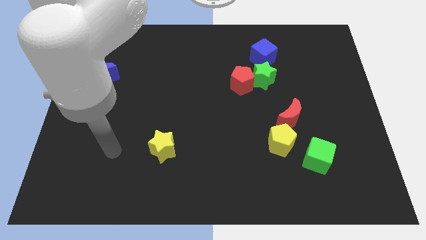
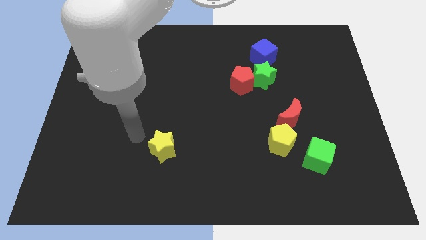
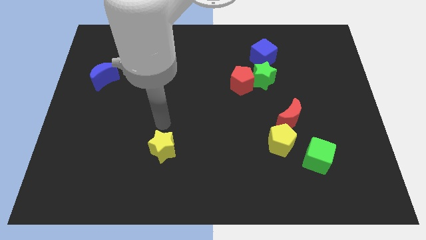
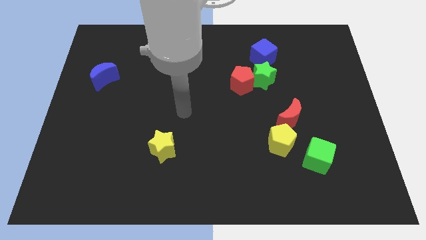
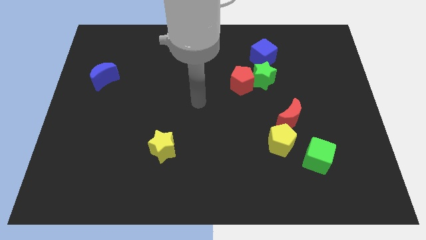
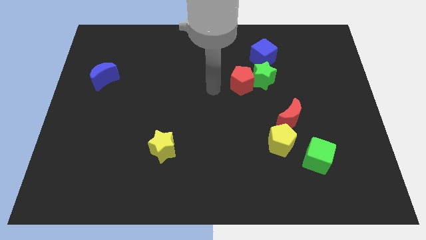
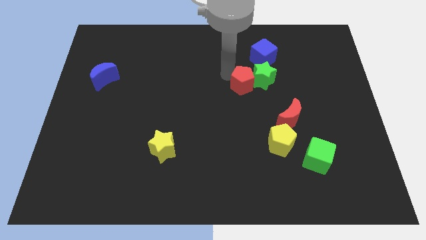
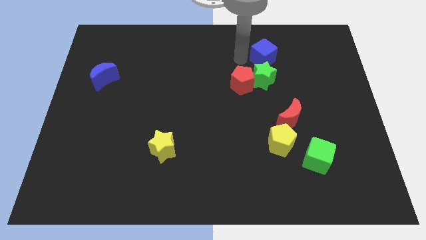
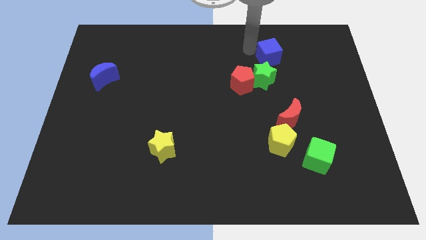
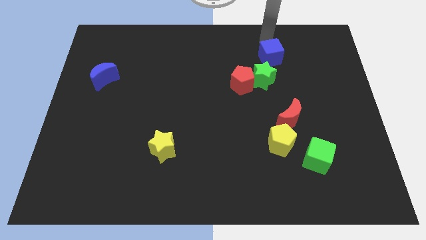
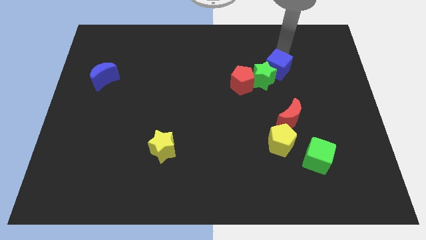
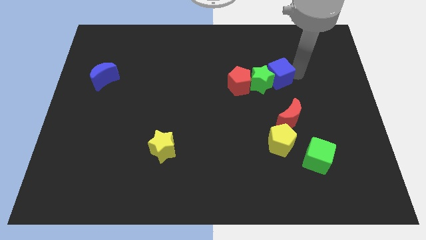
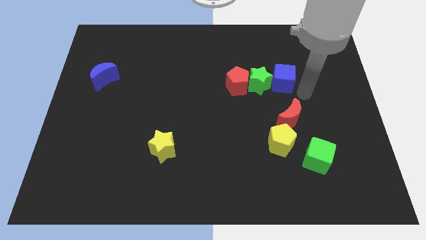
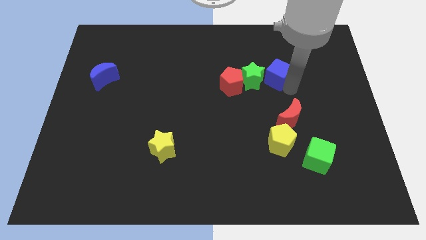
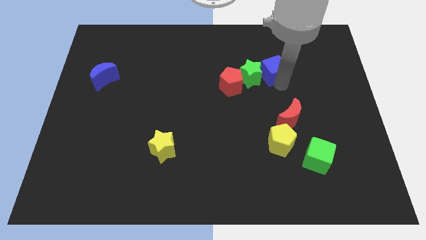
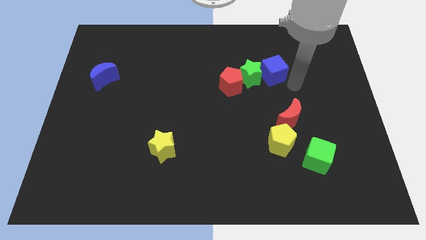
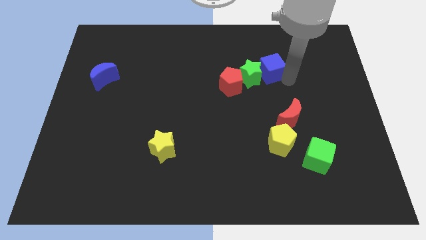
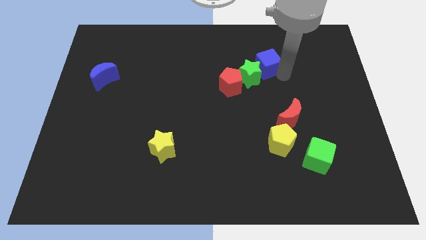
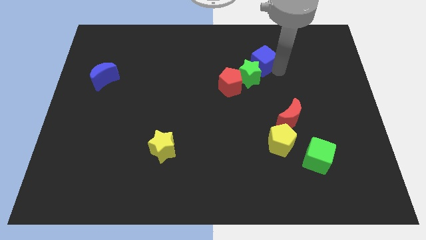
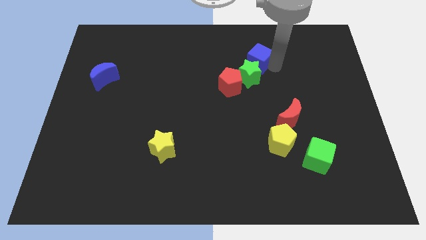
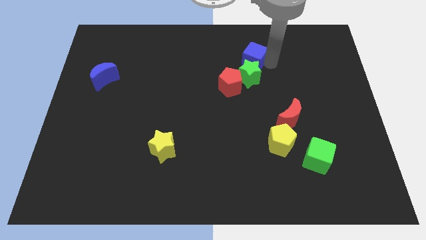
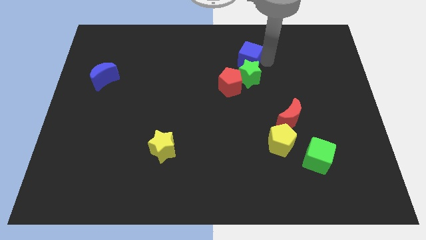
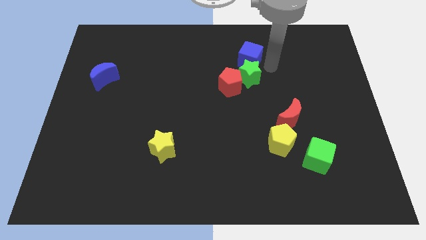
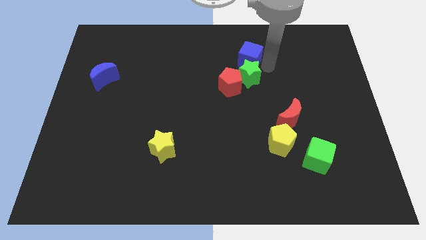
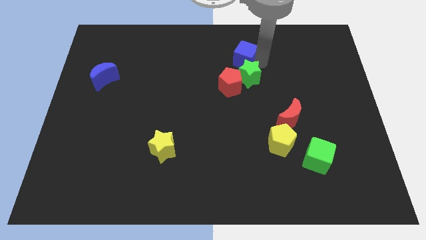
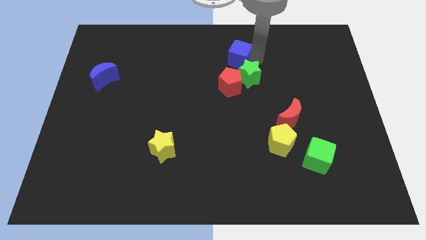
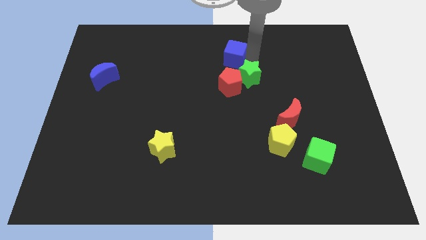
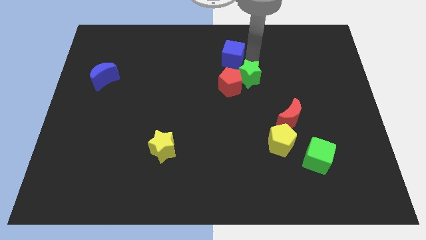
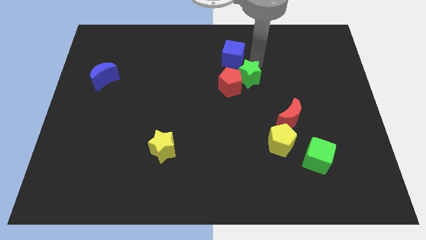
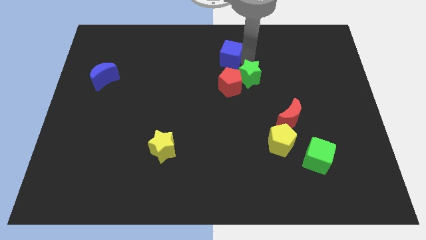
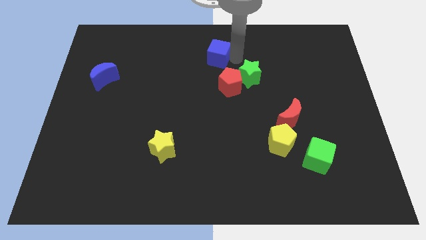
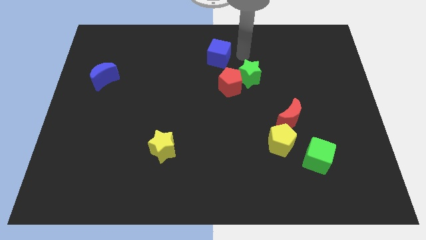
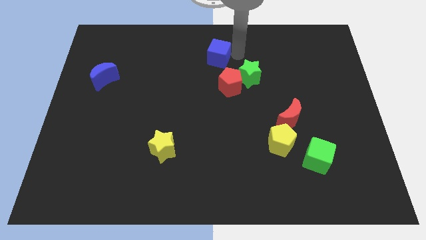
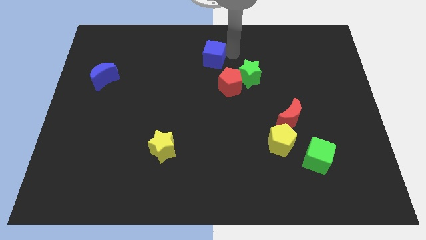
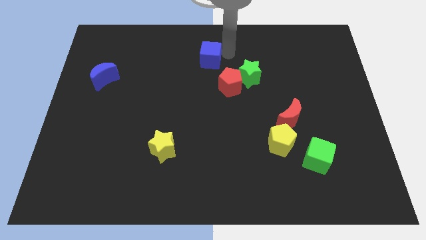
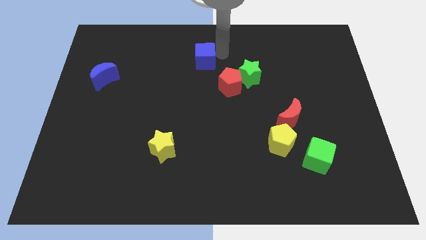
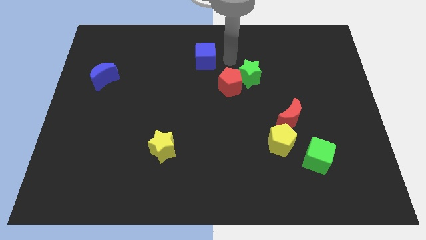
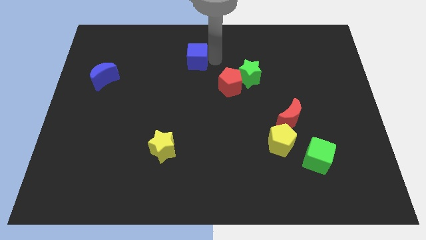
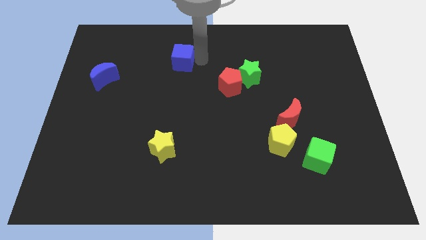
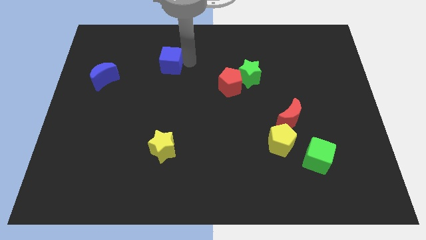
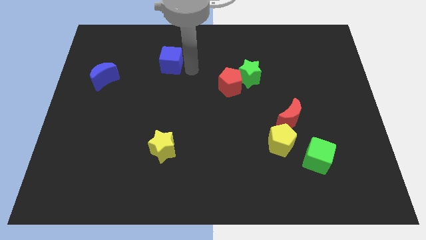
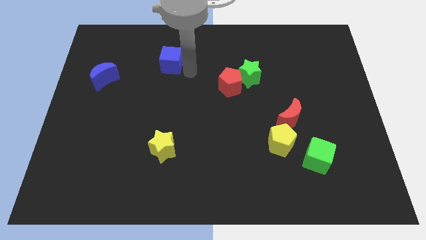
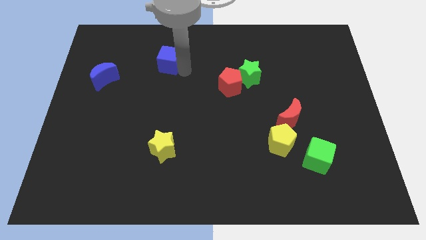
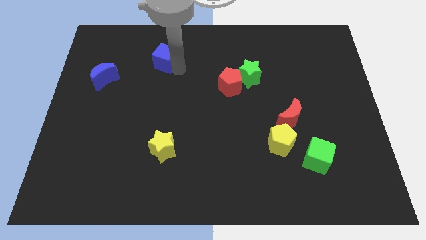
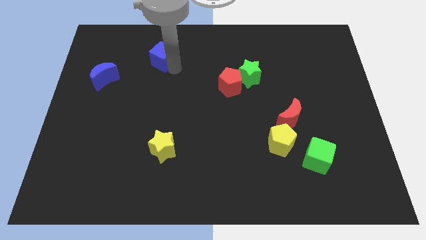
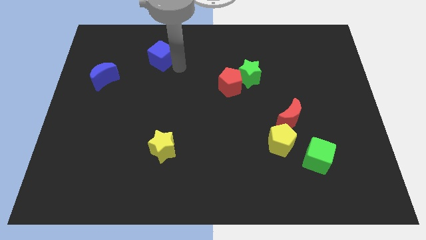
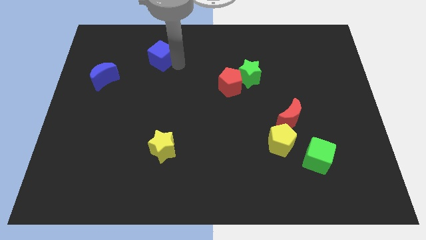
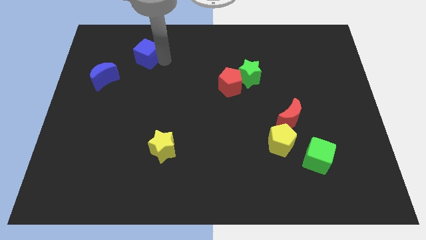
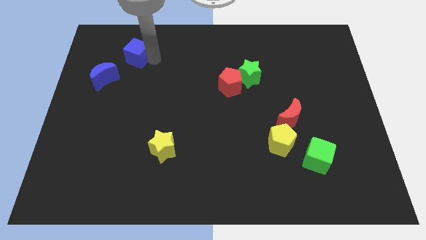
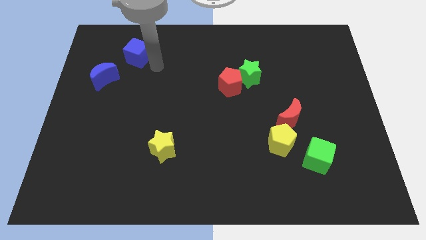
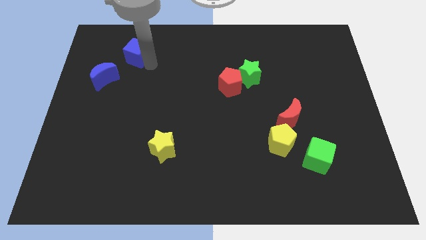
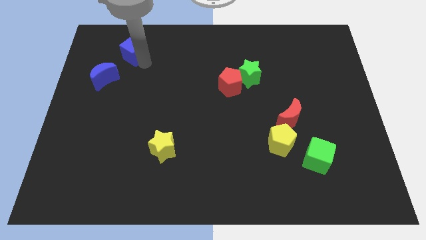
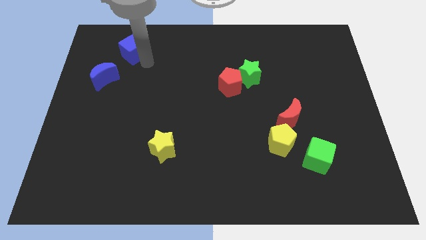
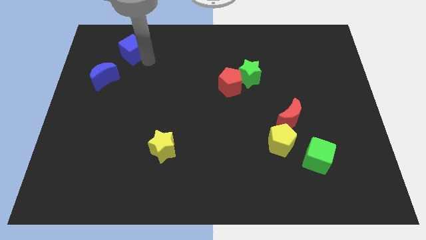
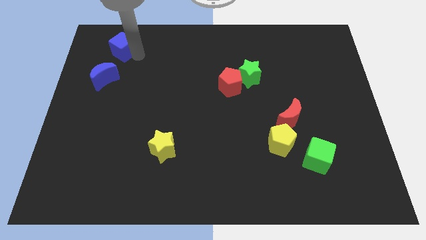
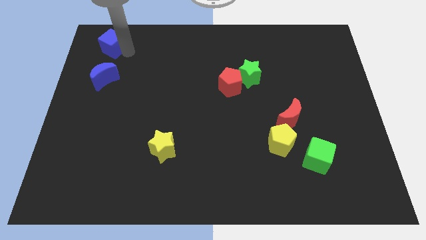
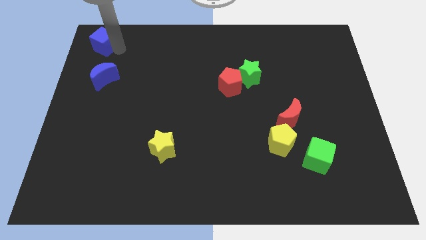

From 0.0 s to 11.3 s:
push the blue cube to the top left of the board

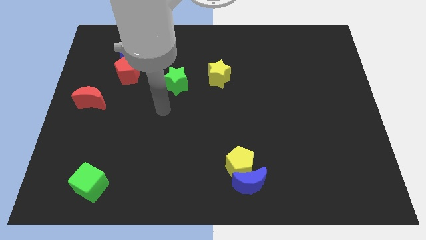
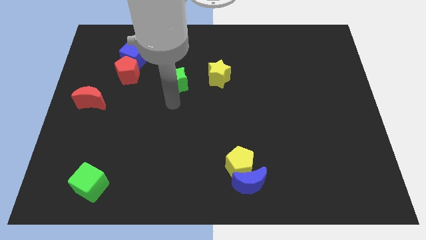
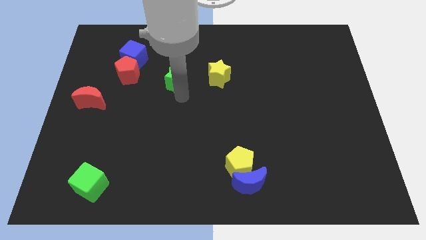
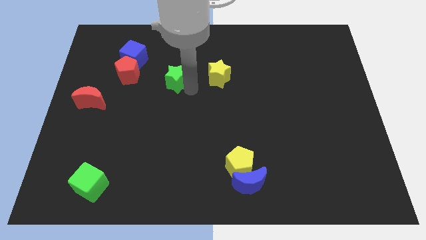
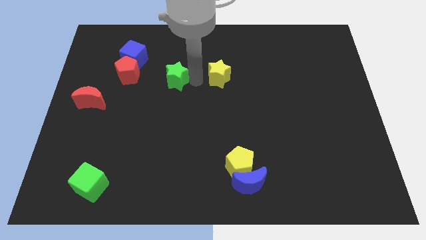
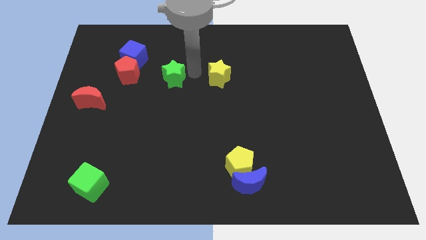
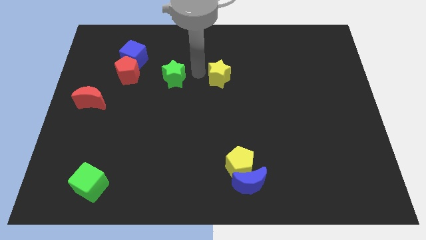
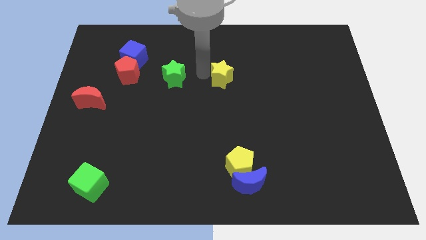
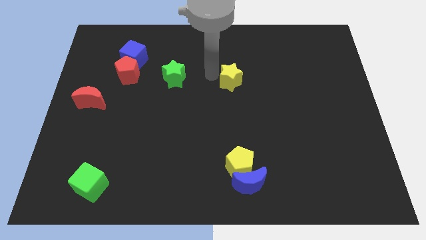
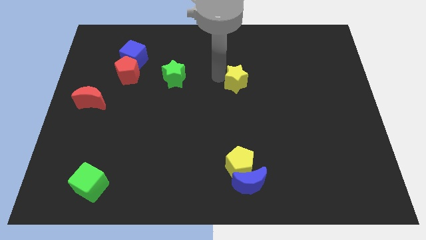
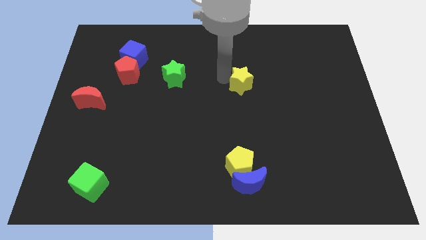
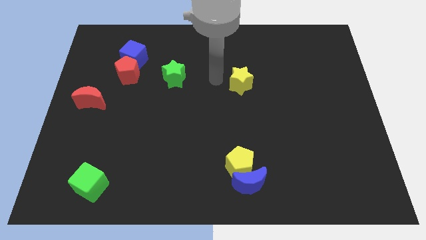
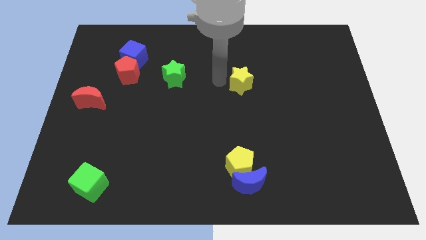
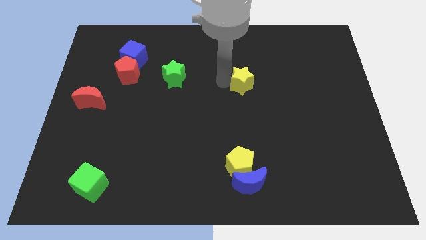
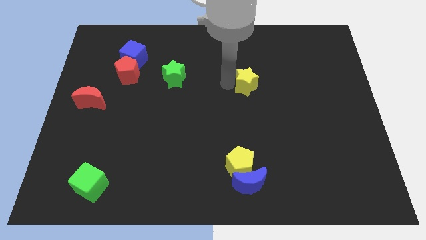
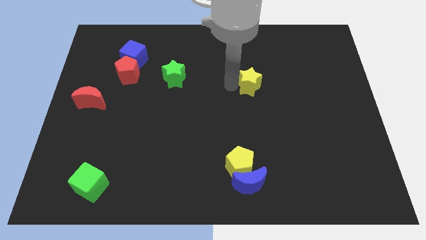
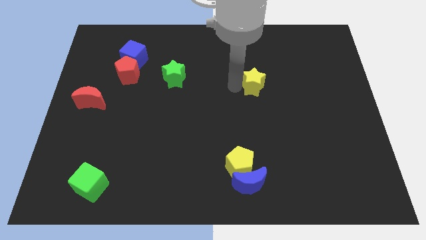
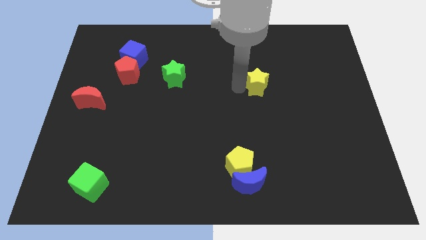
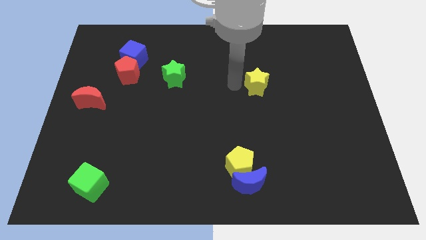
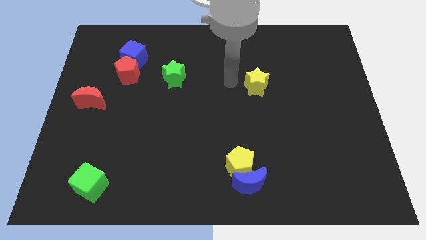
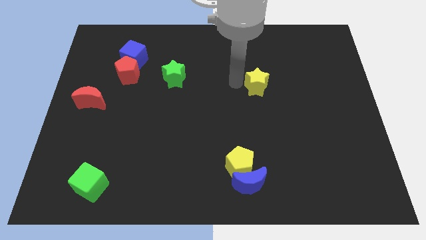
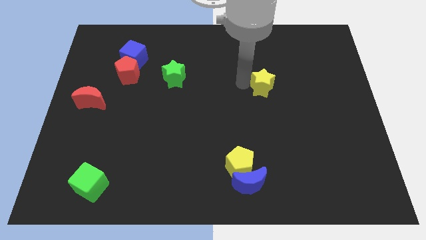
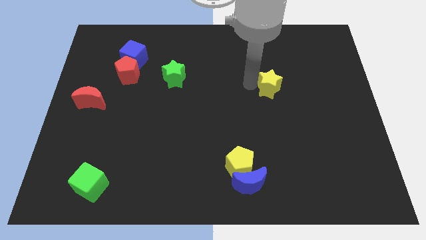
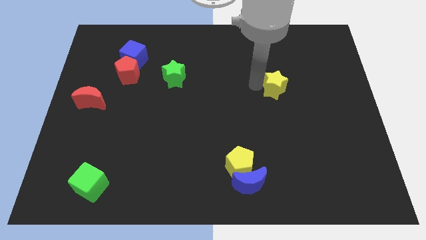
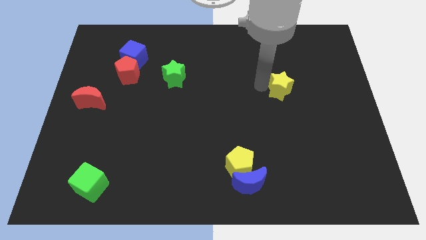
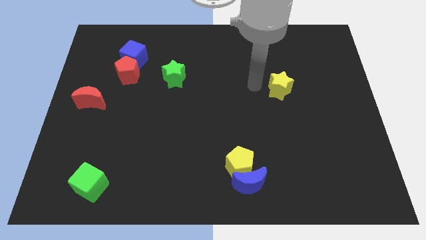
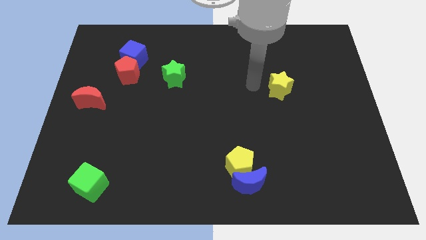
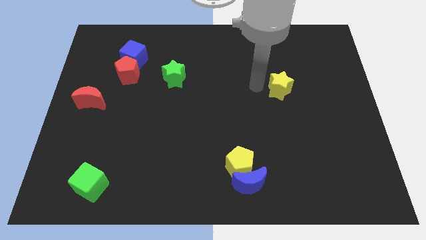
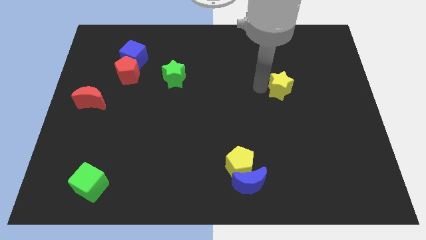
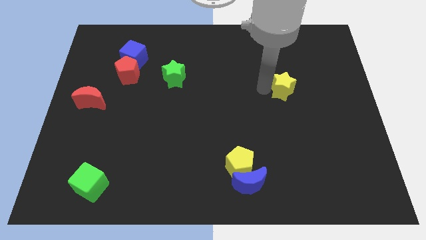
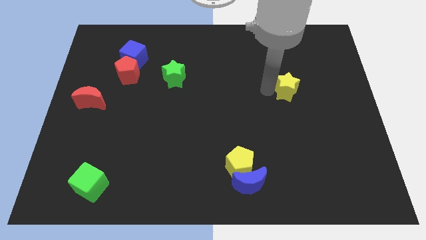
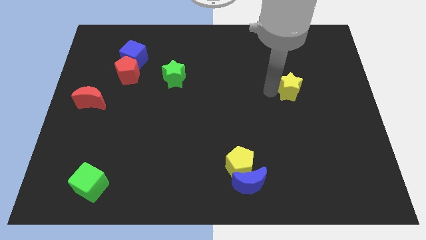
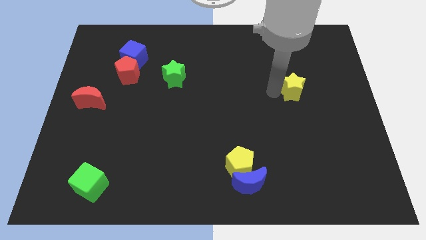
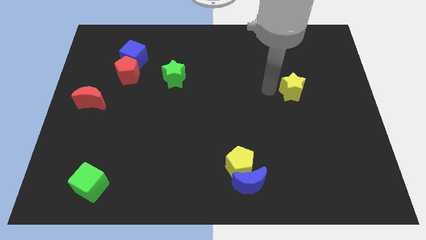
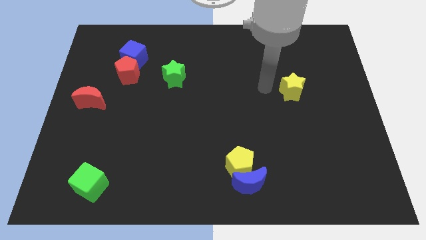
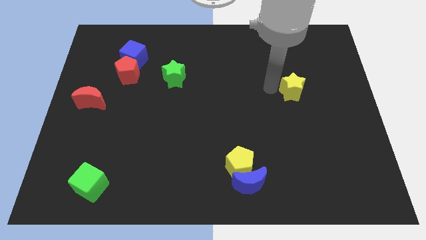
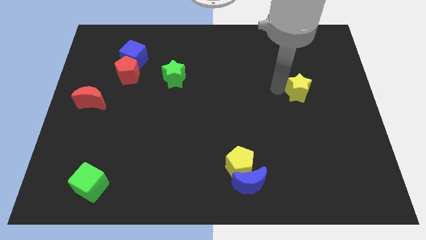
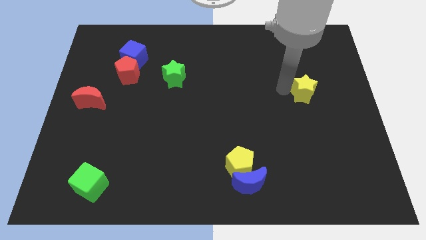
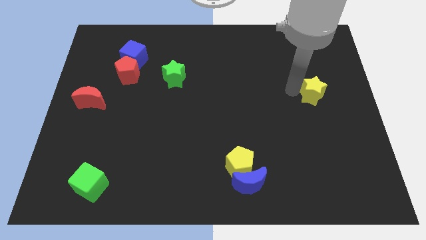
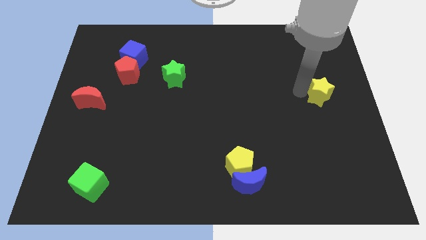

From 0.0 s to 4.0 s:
move the yellow star to the right side of the board
